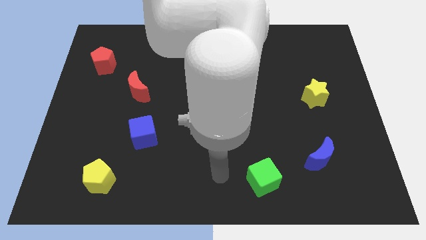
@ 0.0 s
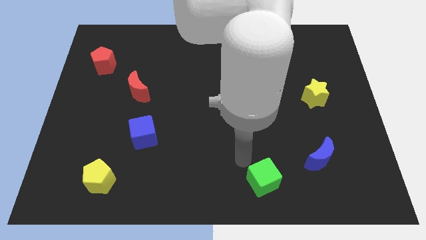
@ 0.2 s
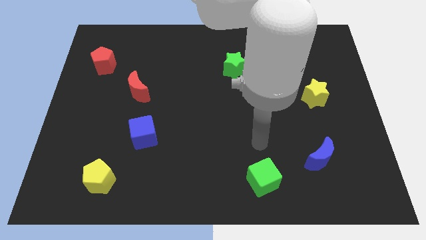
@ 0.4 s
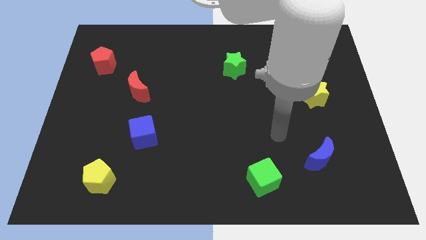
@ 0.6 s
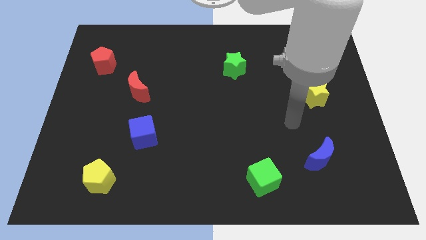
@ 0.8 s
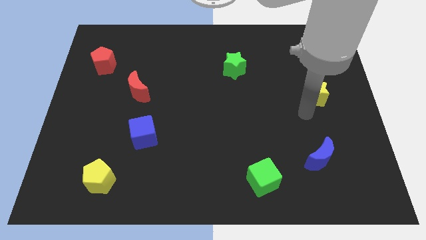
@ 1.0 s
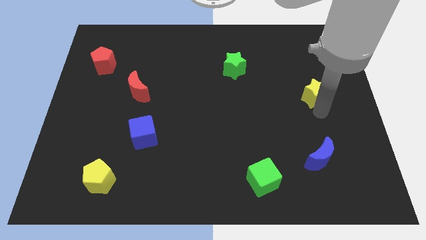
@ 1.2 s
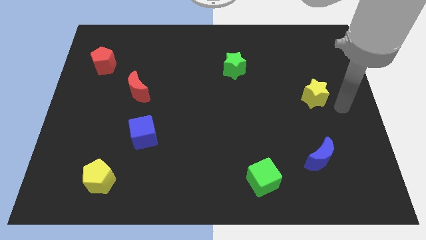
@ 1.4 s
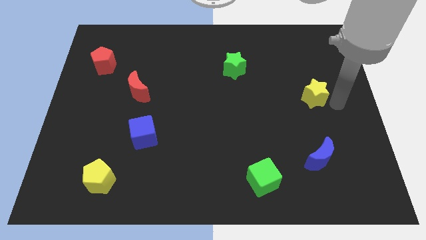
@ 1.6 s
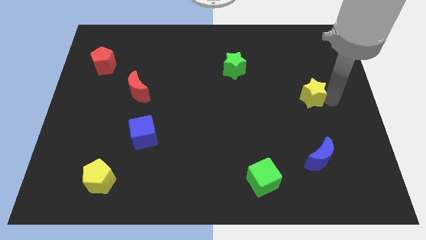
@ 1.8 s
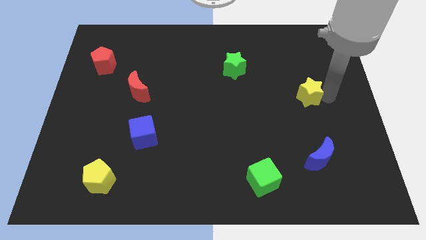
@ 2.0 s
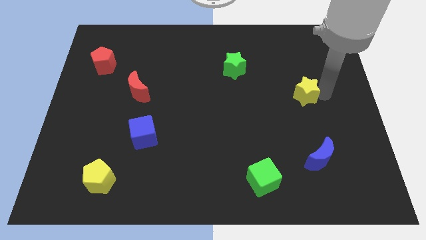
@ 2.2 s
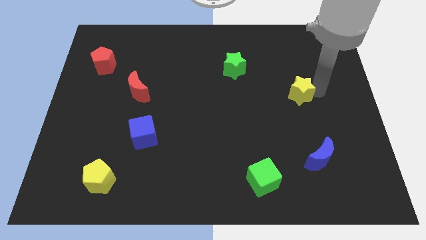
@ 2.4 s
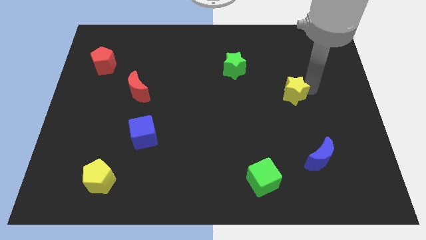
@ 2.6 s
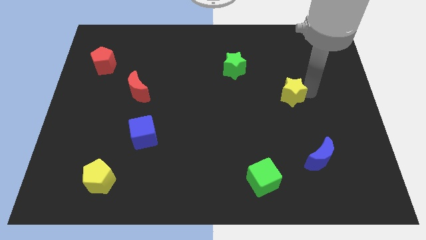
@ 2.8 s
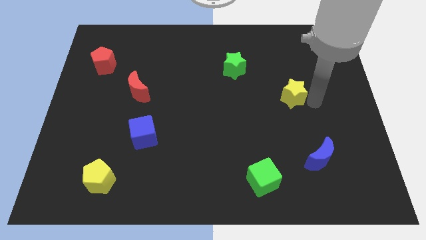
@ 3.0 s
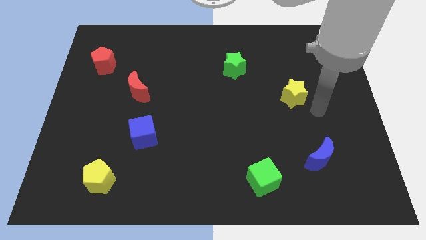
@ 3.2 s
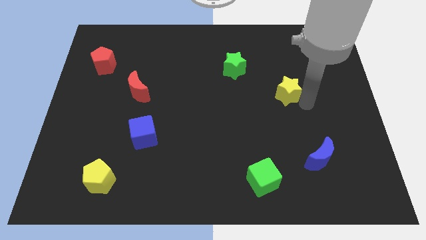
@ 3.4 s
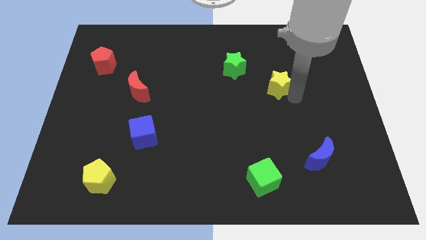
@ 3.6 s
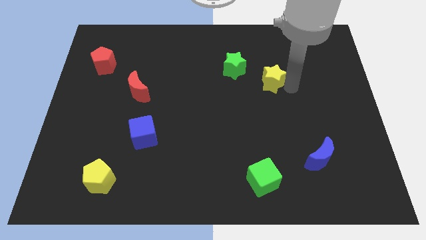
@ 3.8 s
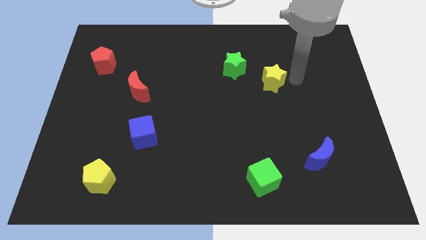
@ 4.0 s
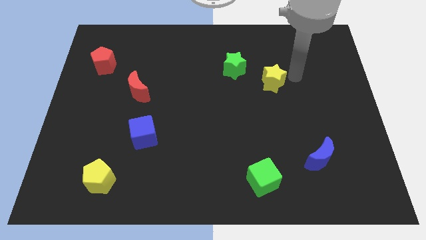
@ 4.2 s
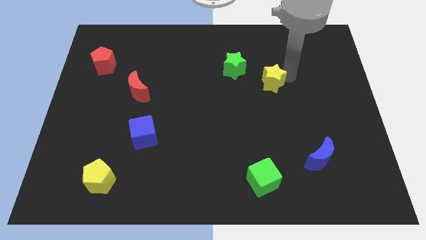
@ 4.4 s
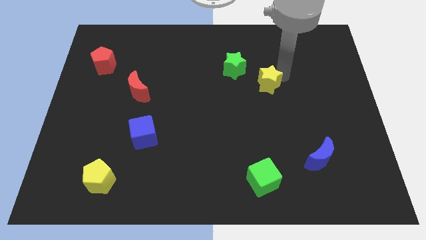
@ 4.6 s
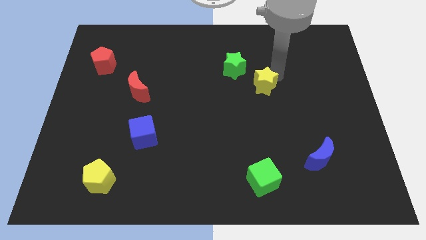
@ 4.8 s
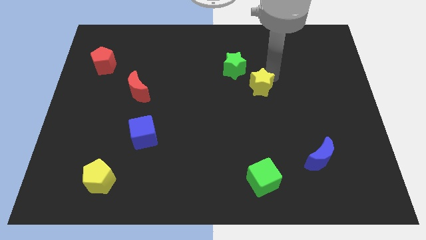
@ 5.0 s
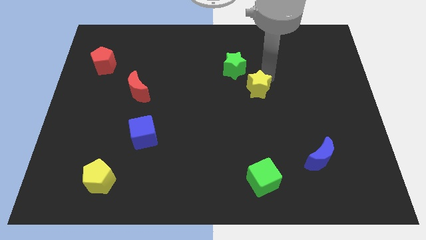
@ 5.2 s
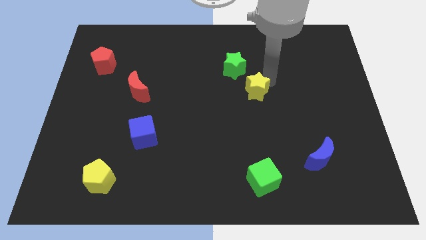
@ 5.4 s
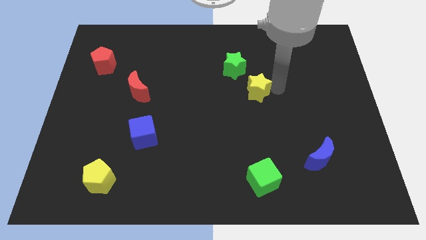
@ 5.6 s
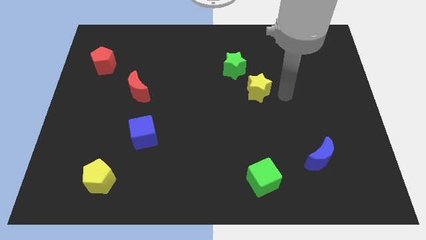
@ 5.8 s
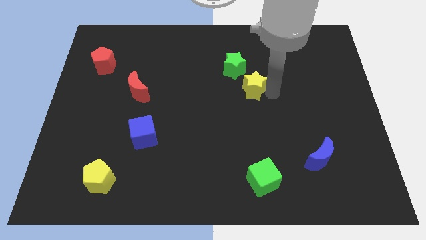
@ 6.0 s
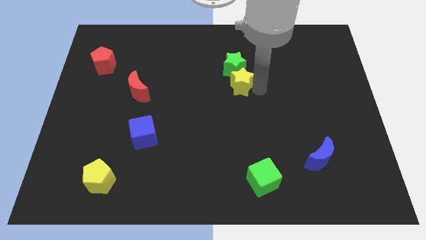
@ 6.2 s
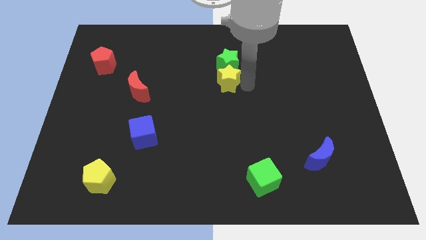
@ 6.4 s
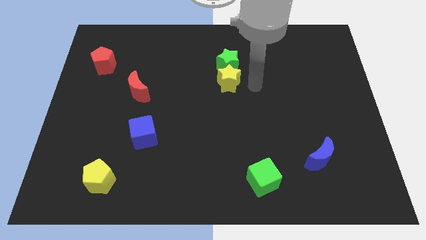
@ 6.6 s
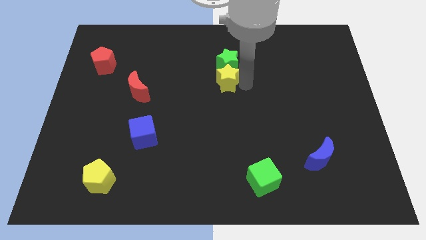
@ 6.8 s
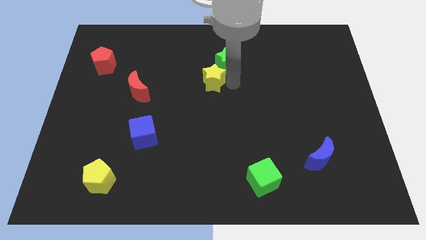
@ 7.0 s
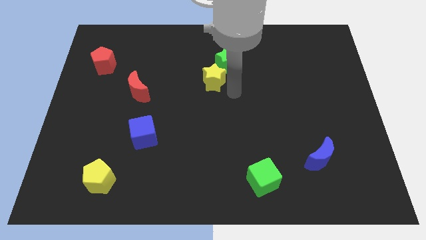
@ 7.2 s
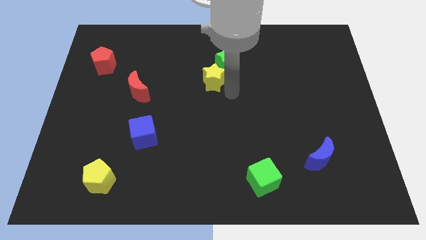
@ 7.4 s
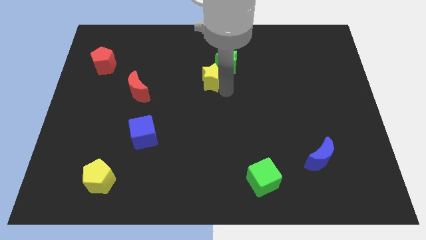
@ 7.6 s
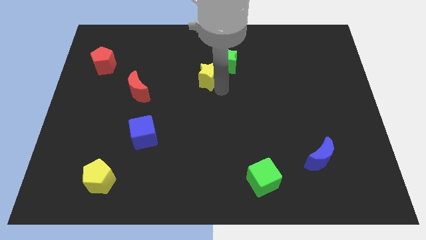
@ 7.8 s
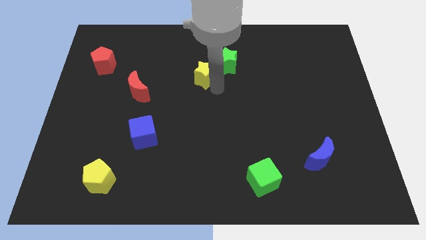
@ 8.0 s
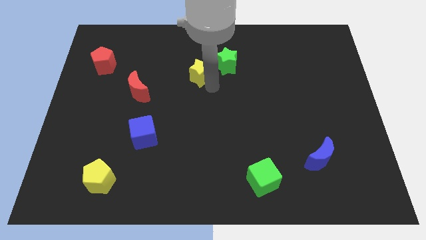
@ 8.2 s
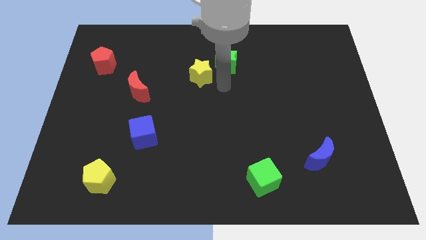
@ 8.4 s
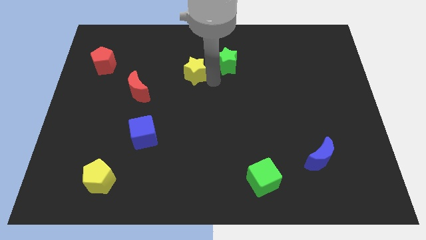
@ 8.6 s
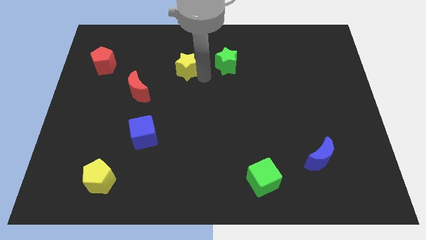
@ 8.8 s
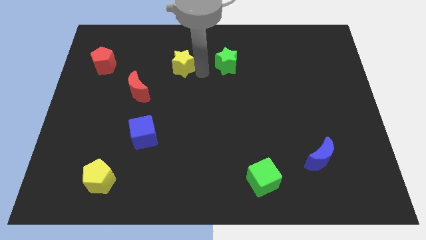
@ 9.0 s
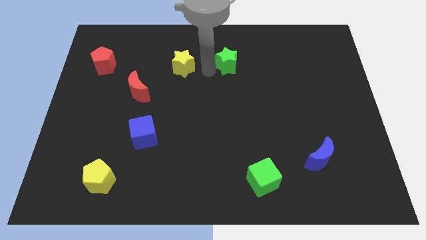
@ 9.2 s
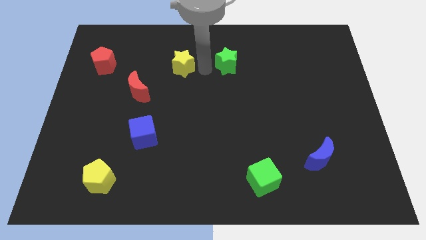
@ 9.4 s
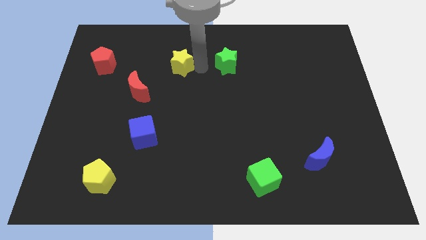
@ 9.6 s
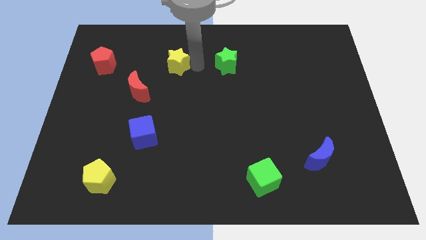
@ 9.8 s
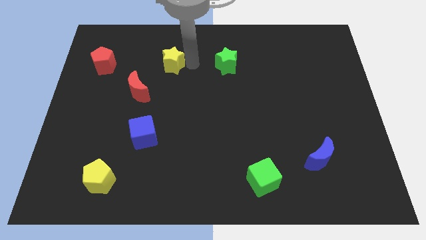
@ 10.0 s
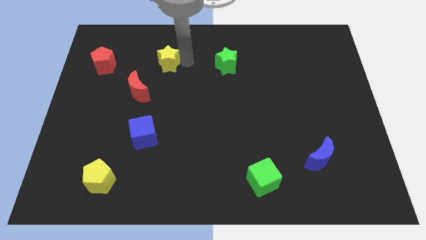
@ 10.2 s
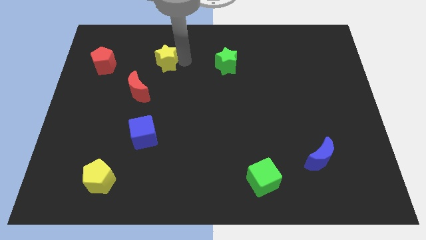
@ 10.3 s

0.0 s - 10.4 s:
push the yellow star just right of the red pentagon

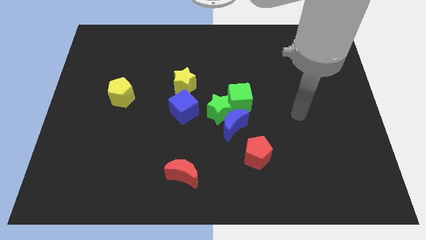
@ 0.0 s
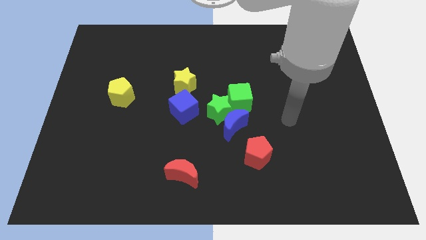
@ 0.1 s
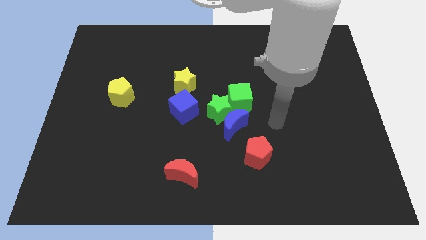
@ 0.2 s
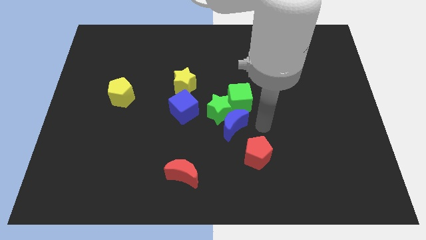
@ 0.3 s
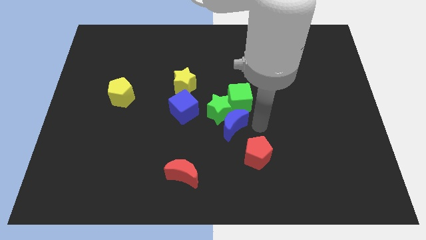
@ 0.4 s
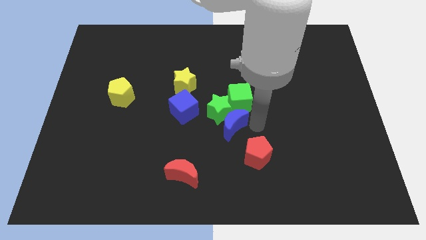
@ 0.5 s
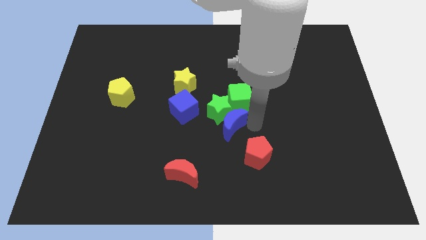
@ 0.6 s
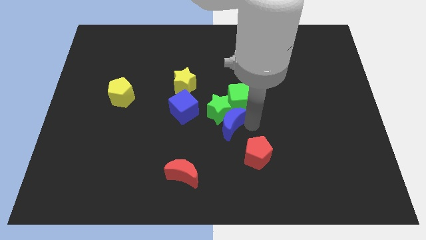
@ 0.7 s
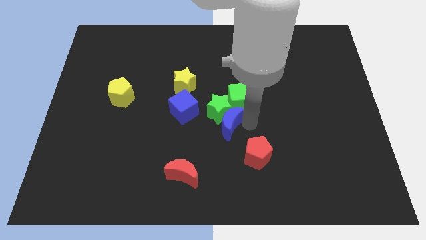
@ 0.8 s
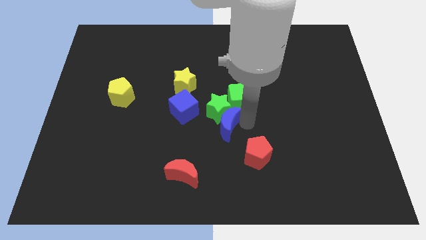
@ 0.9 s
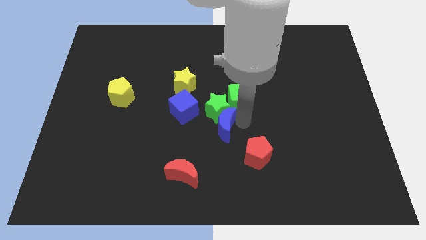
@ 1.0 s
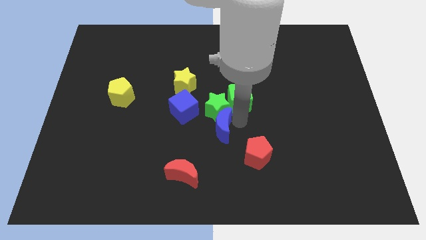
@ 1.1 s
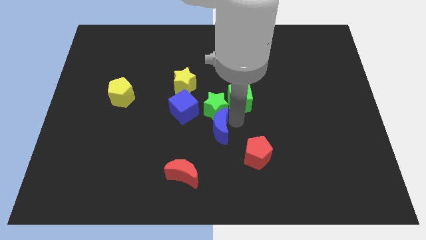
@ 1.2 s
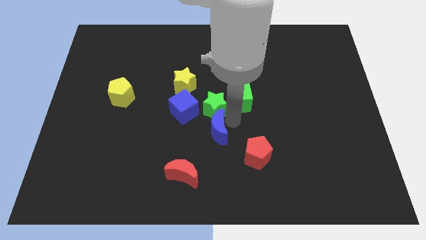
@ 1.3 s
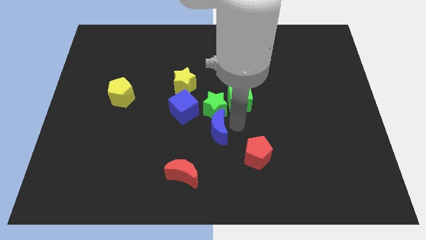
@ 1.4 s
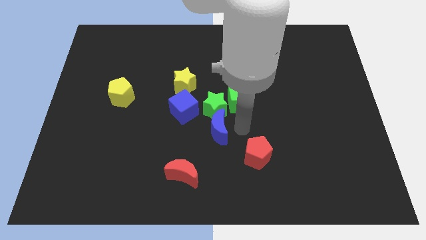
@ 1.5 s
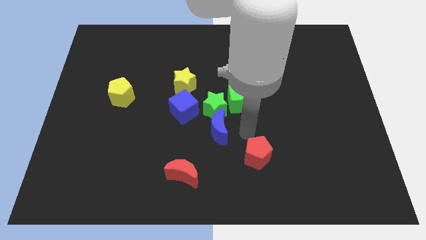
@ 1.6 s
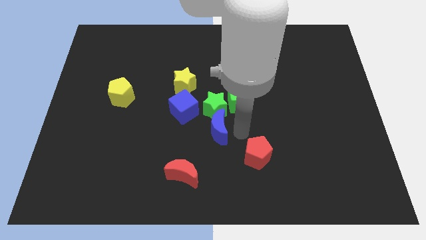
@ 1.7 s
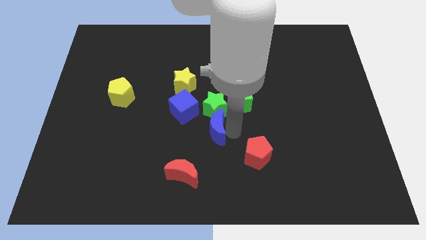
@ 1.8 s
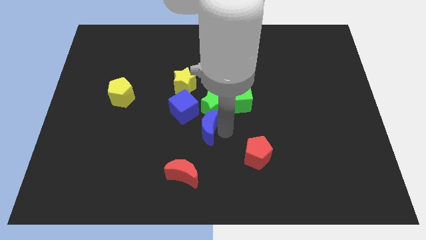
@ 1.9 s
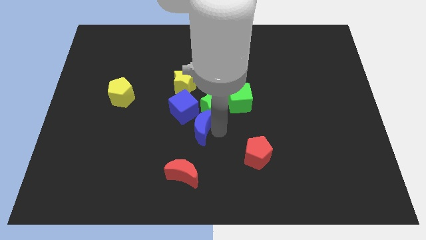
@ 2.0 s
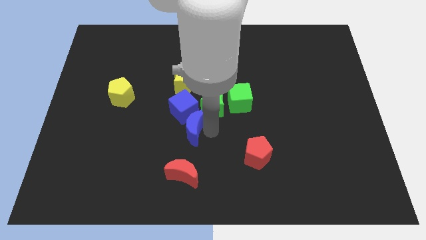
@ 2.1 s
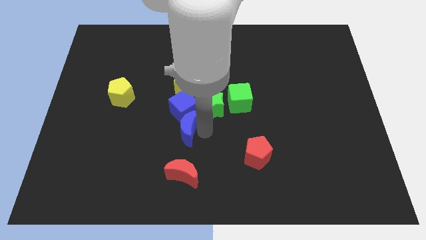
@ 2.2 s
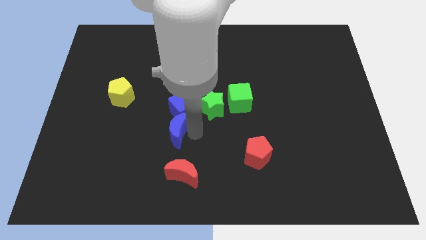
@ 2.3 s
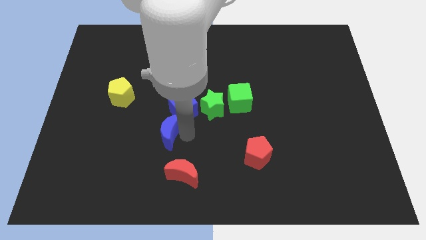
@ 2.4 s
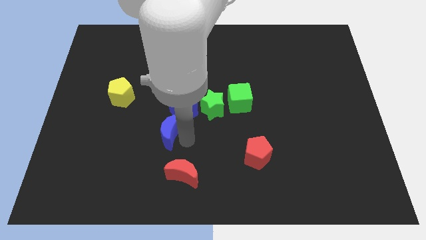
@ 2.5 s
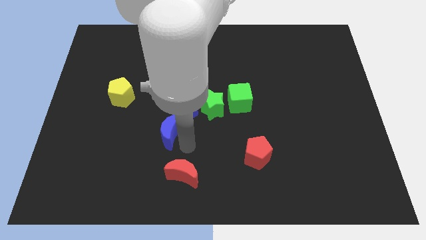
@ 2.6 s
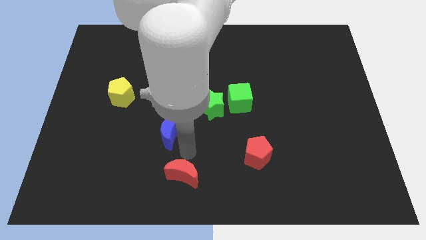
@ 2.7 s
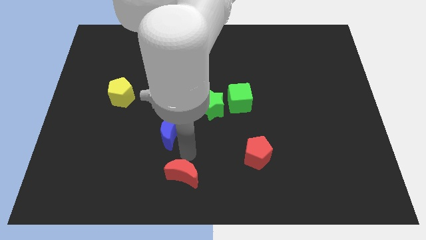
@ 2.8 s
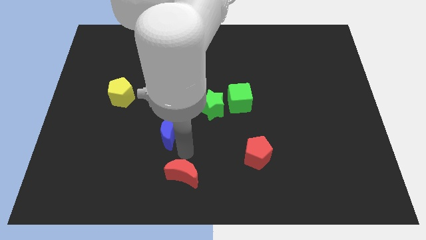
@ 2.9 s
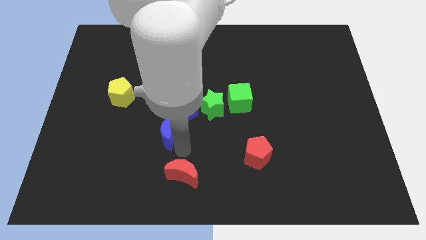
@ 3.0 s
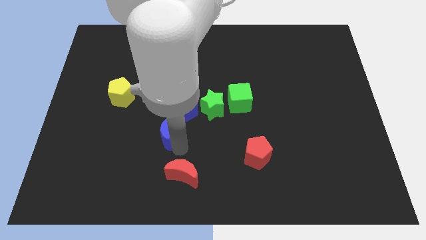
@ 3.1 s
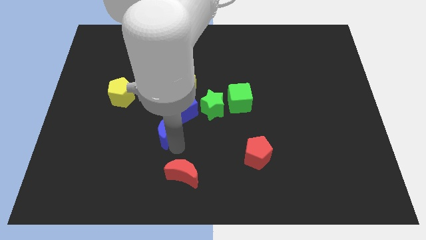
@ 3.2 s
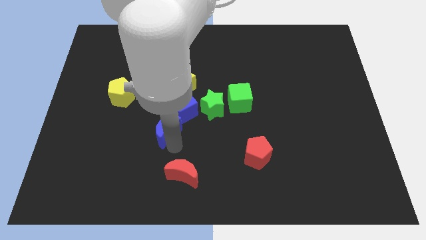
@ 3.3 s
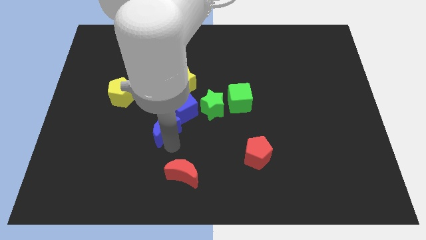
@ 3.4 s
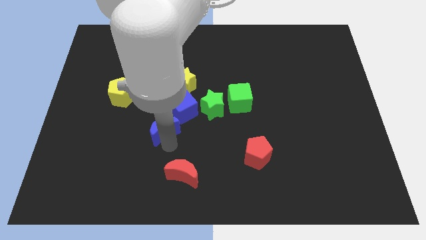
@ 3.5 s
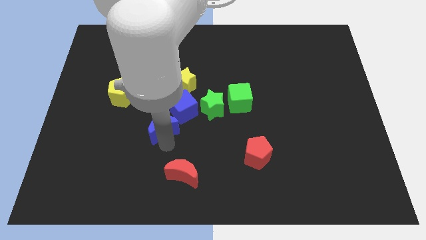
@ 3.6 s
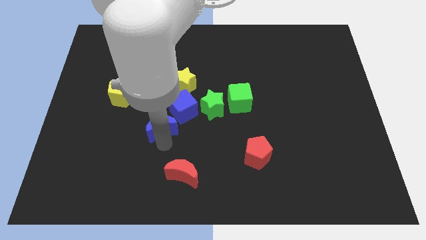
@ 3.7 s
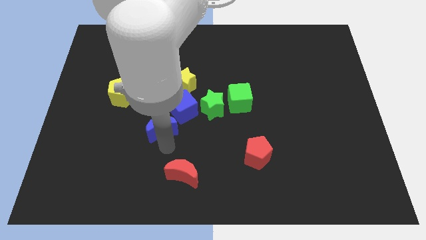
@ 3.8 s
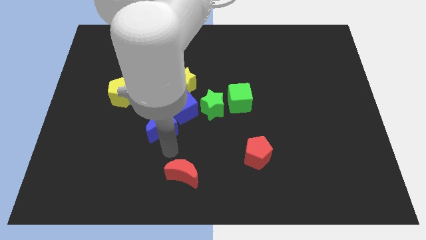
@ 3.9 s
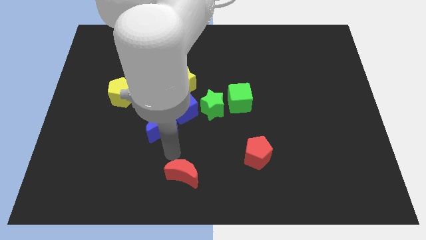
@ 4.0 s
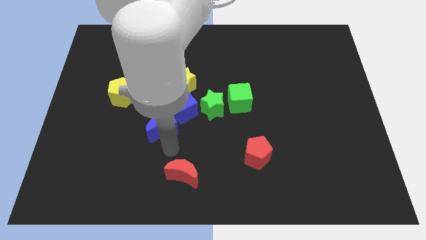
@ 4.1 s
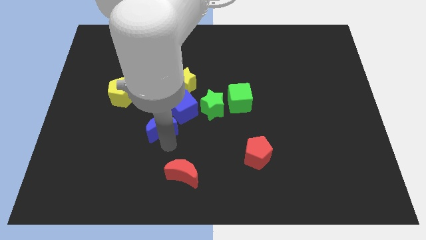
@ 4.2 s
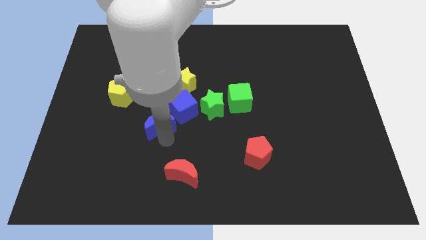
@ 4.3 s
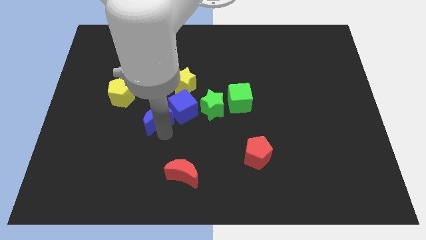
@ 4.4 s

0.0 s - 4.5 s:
push the blue moon to the bottom right side of the yellow pentagon
